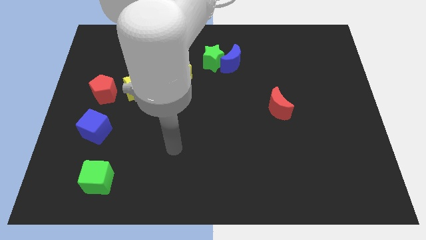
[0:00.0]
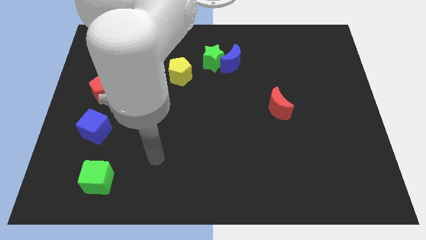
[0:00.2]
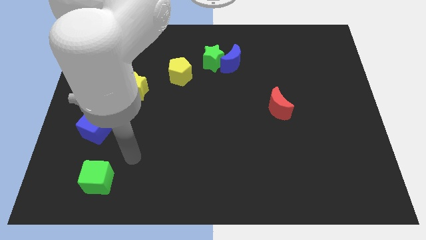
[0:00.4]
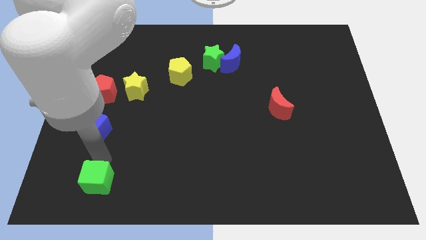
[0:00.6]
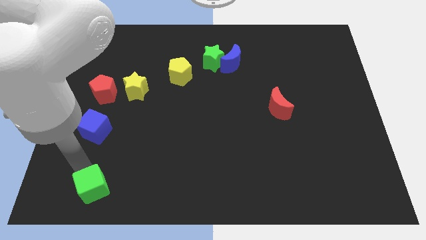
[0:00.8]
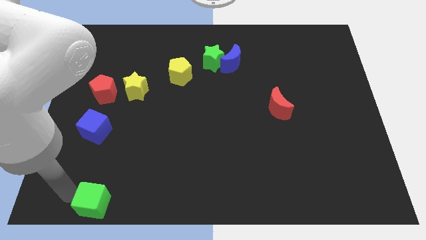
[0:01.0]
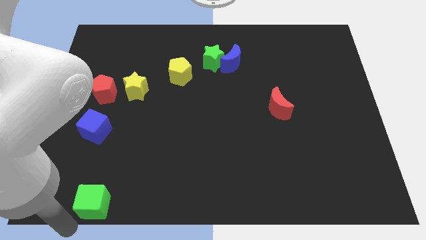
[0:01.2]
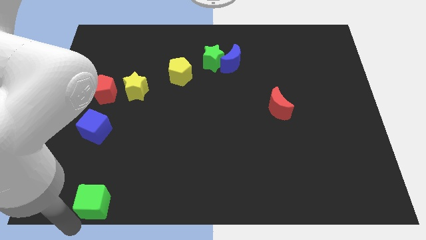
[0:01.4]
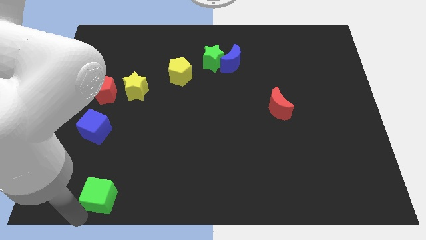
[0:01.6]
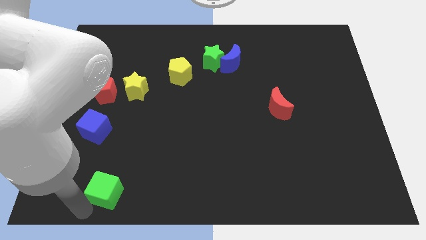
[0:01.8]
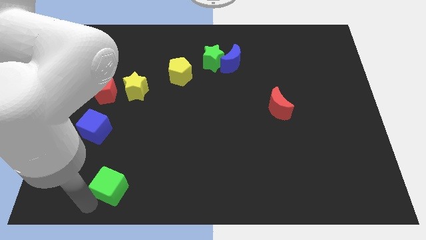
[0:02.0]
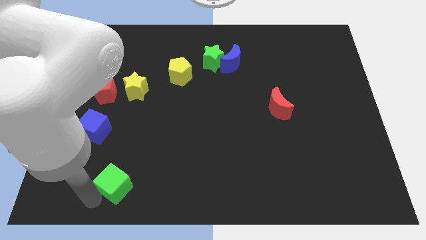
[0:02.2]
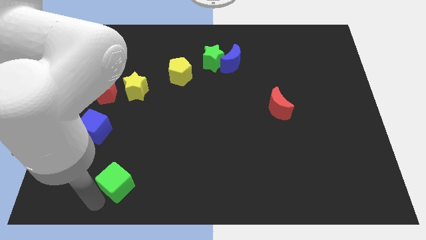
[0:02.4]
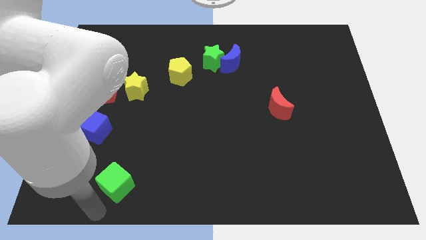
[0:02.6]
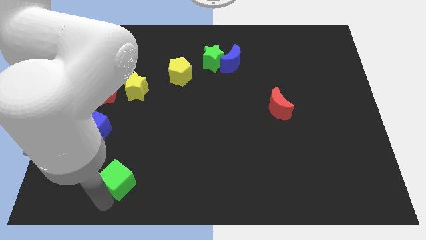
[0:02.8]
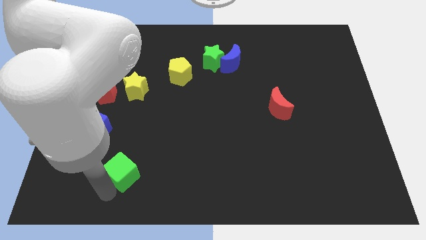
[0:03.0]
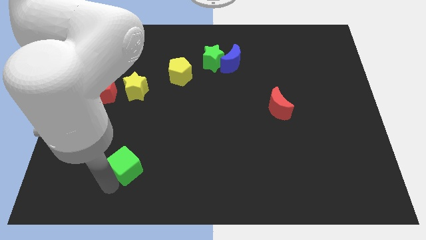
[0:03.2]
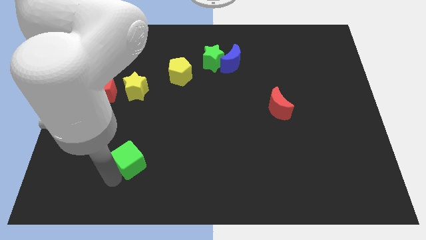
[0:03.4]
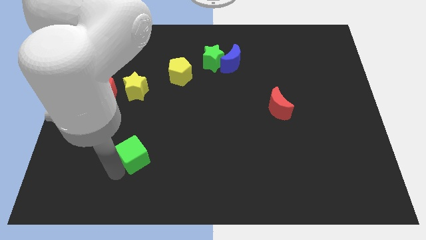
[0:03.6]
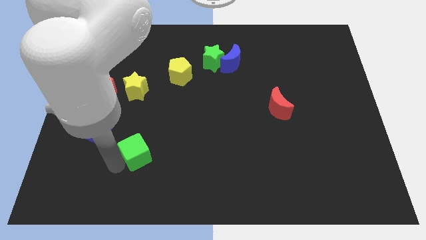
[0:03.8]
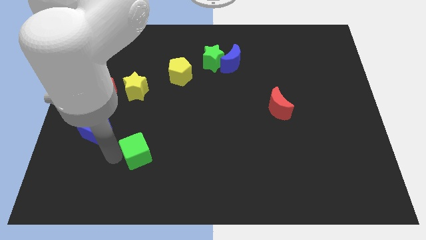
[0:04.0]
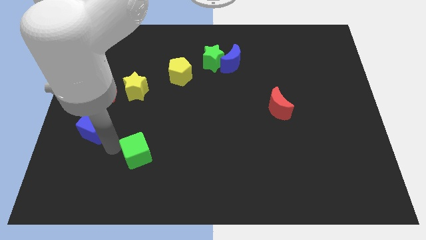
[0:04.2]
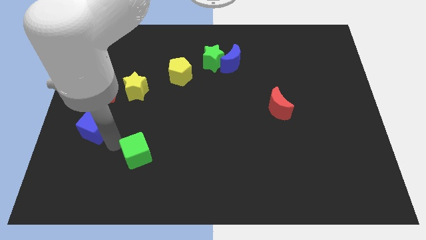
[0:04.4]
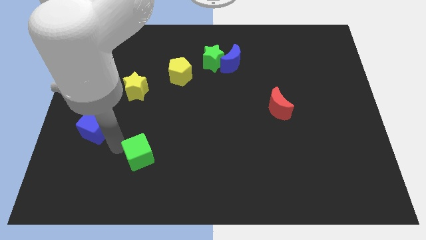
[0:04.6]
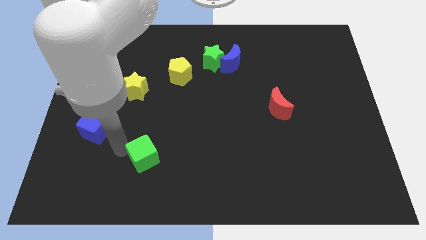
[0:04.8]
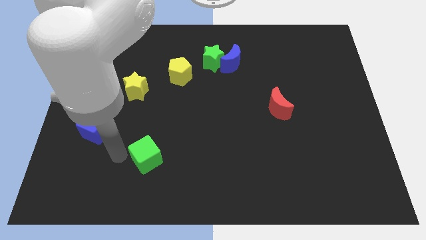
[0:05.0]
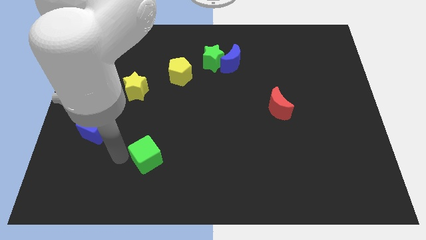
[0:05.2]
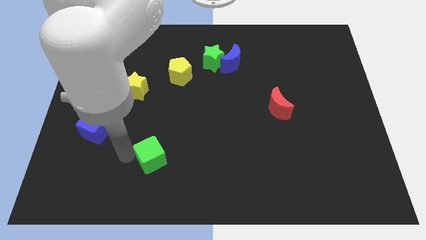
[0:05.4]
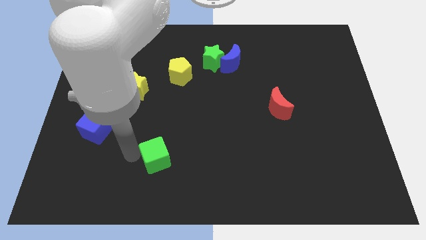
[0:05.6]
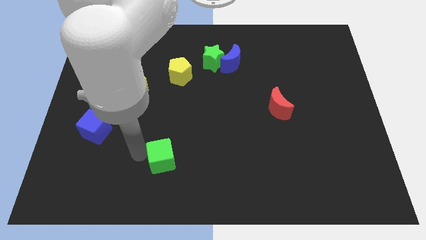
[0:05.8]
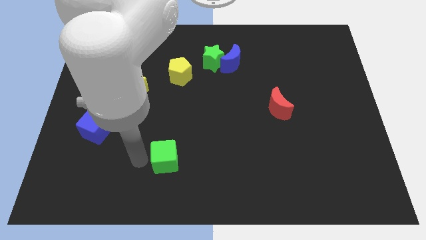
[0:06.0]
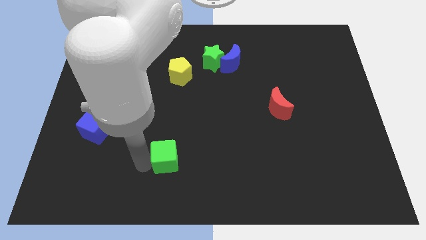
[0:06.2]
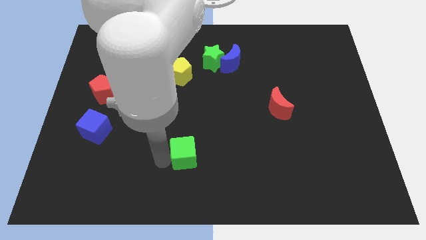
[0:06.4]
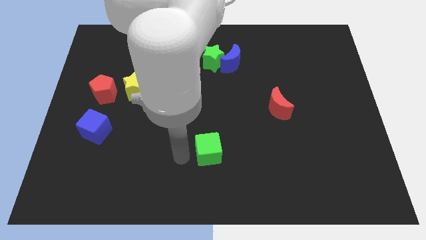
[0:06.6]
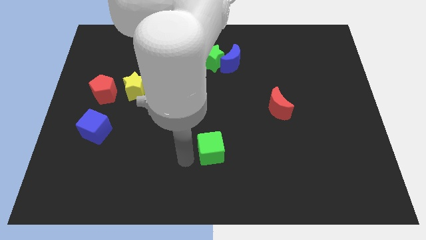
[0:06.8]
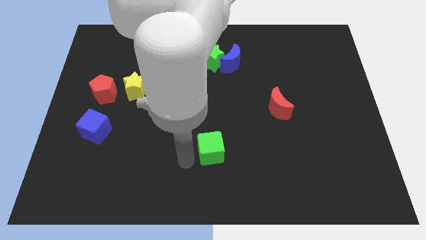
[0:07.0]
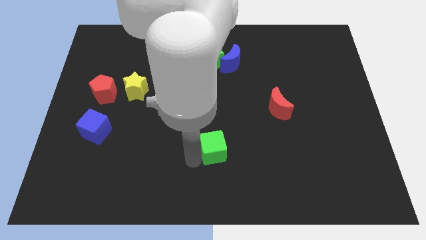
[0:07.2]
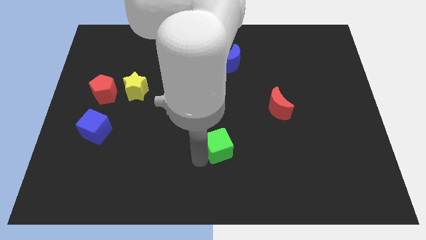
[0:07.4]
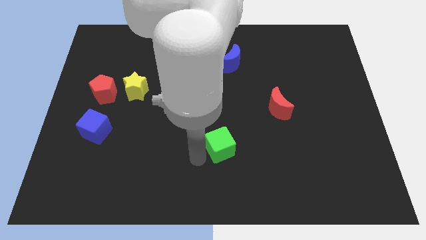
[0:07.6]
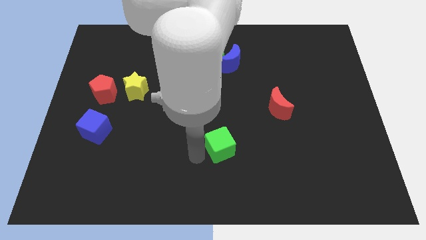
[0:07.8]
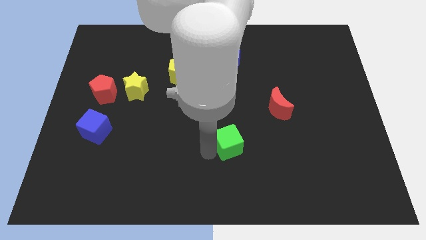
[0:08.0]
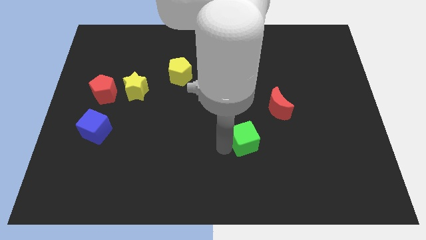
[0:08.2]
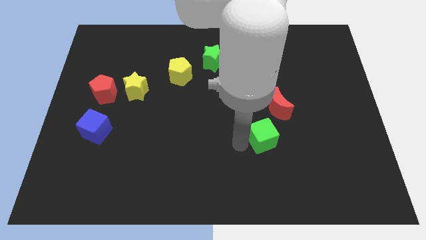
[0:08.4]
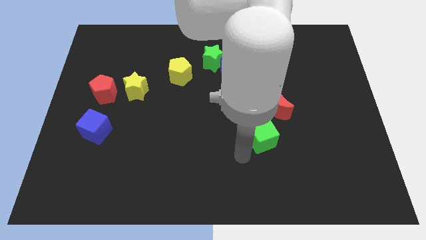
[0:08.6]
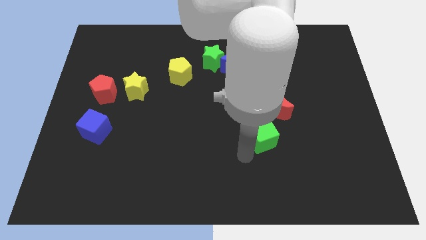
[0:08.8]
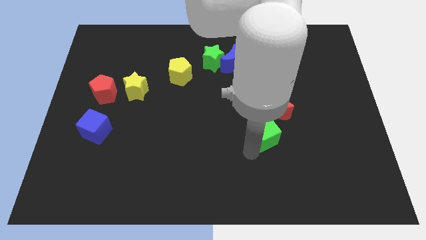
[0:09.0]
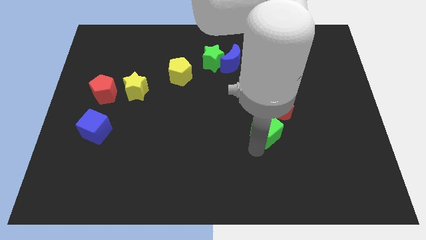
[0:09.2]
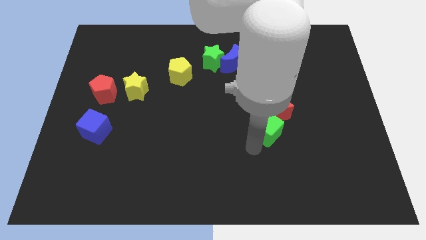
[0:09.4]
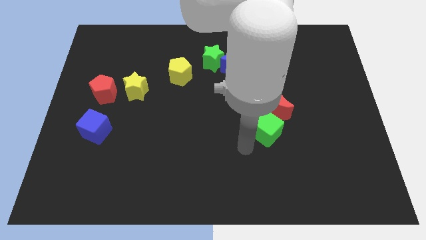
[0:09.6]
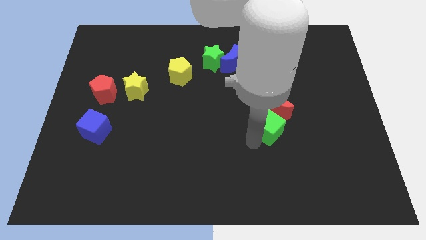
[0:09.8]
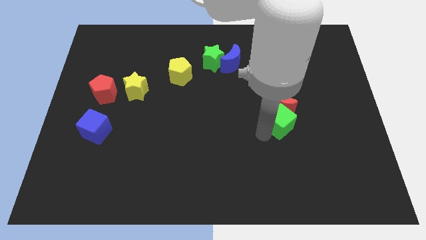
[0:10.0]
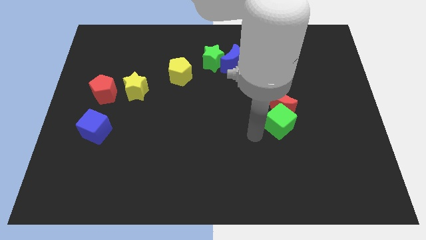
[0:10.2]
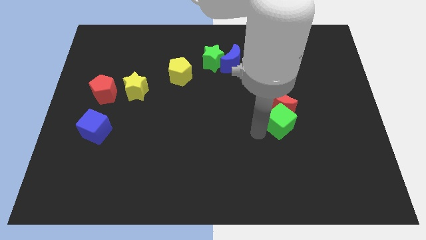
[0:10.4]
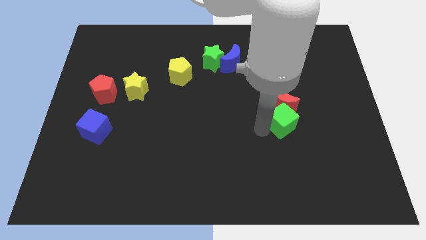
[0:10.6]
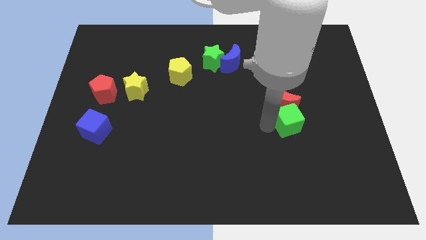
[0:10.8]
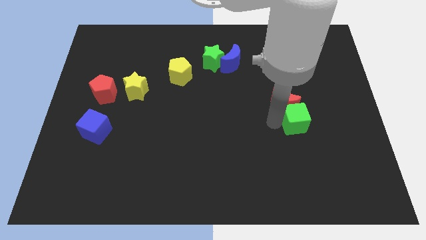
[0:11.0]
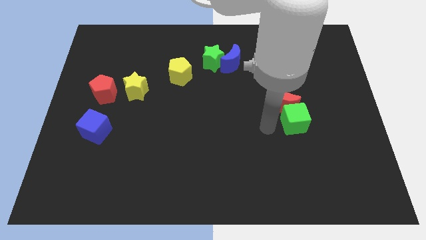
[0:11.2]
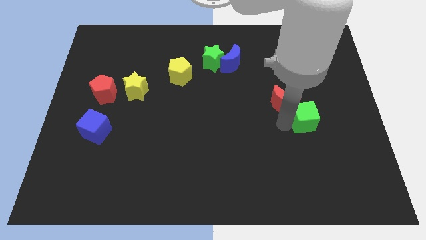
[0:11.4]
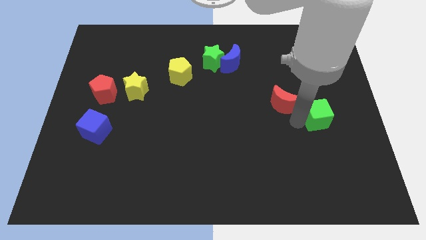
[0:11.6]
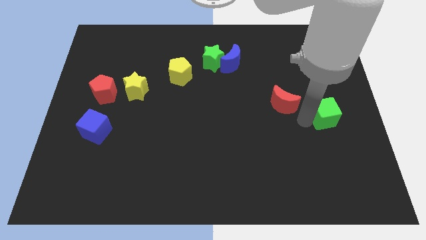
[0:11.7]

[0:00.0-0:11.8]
push the green cube to the right side of the board
